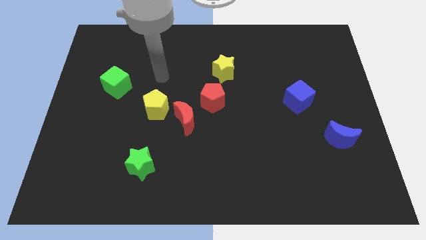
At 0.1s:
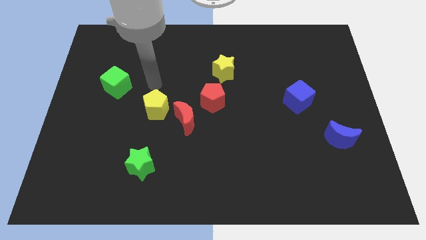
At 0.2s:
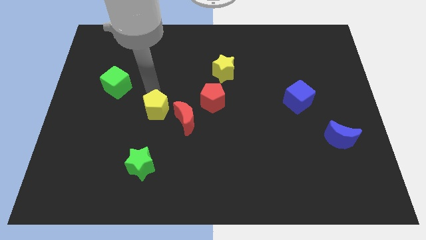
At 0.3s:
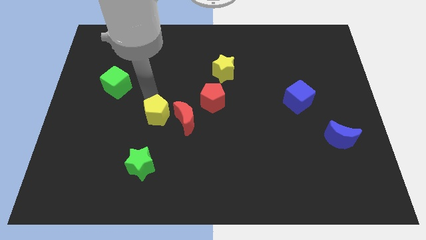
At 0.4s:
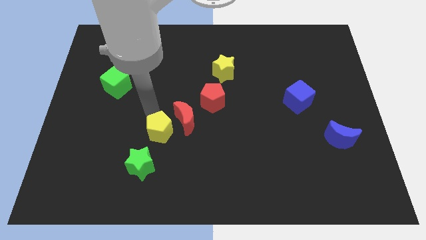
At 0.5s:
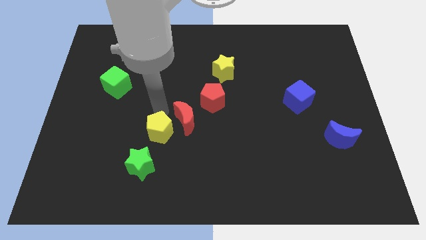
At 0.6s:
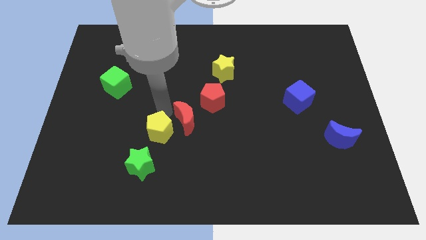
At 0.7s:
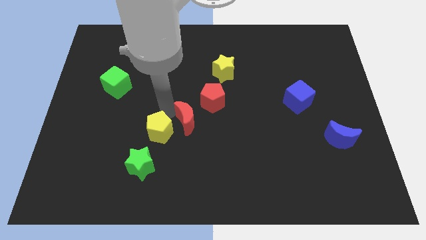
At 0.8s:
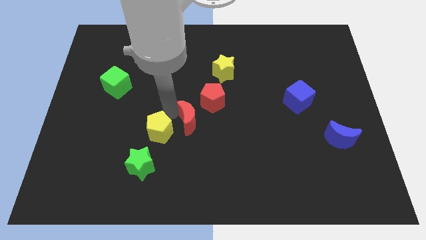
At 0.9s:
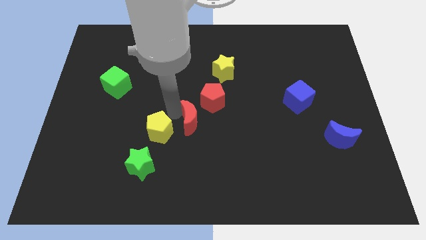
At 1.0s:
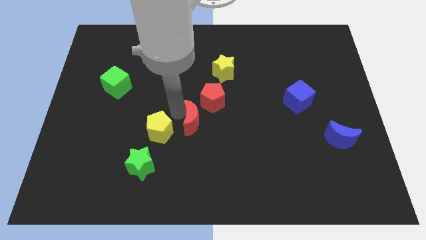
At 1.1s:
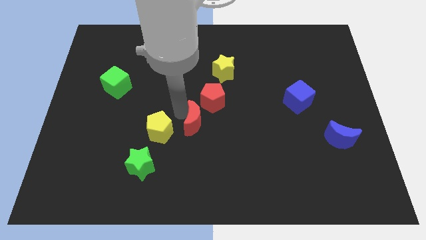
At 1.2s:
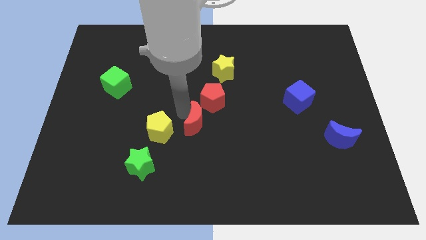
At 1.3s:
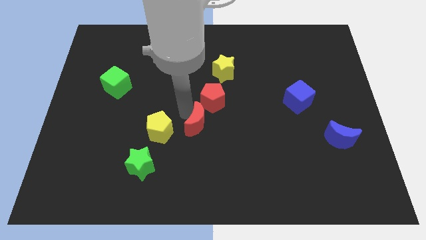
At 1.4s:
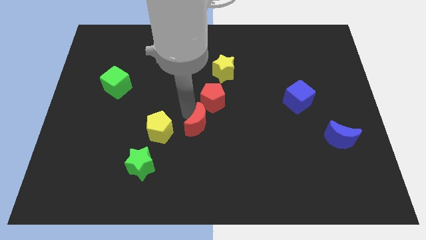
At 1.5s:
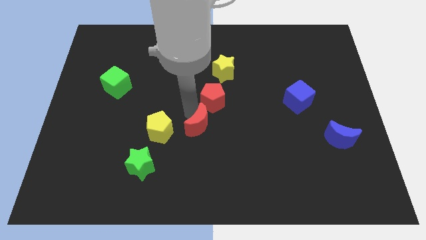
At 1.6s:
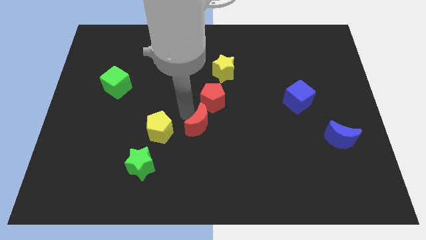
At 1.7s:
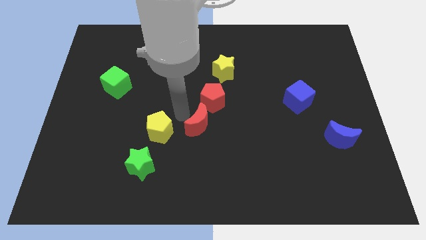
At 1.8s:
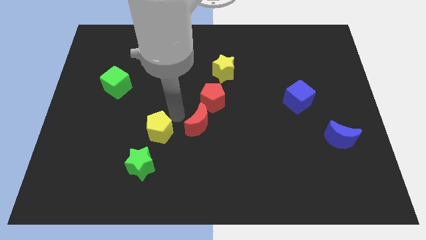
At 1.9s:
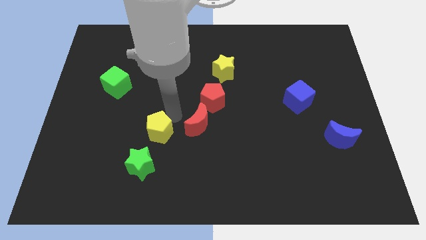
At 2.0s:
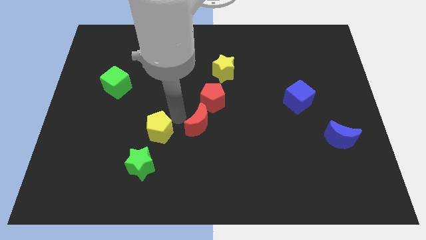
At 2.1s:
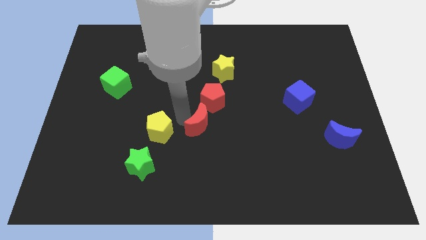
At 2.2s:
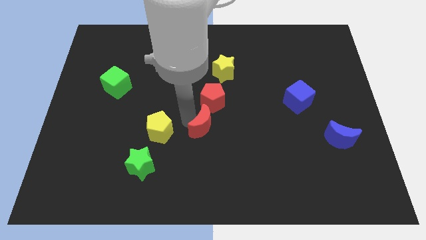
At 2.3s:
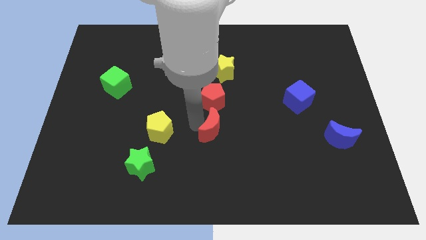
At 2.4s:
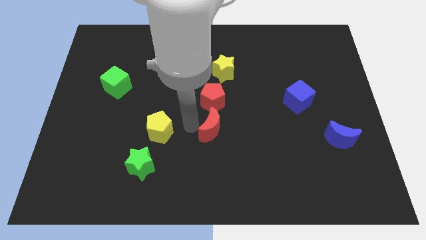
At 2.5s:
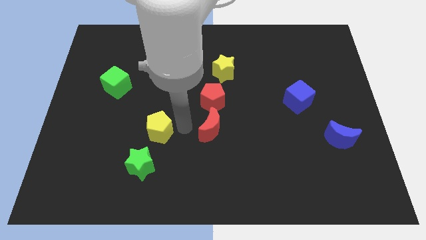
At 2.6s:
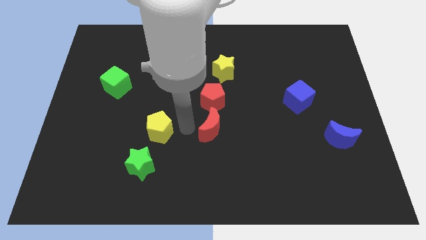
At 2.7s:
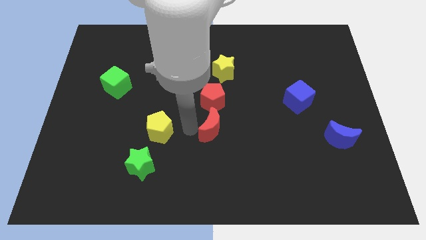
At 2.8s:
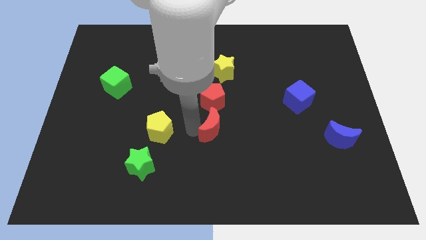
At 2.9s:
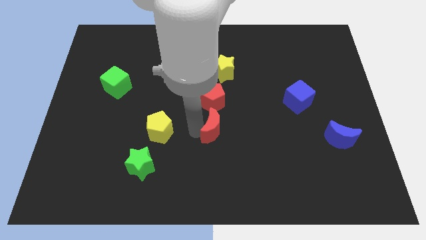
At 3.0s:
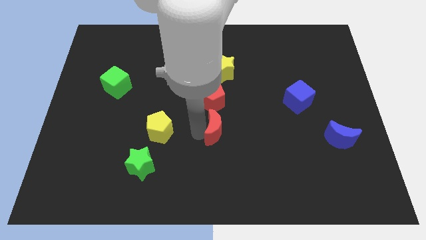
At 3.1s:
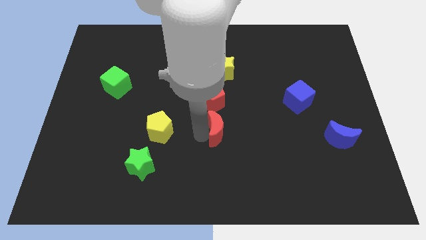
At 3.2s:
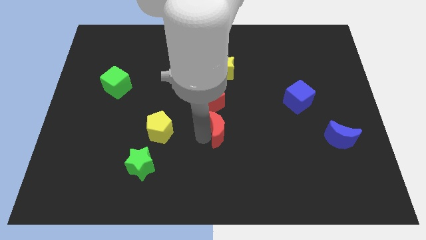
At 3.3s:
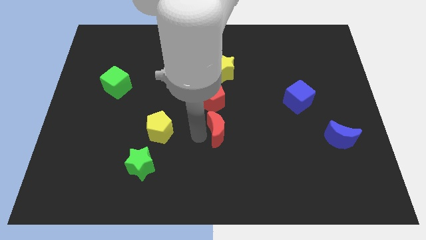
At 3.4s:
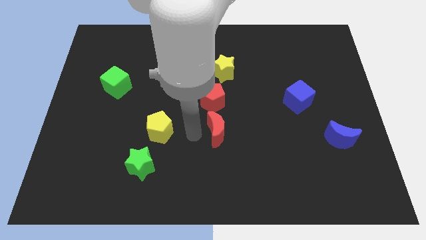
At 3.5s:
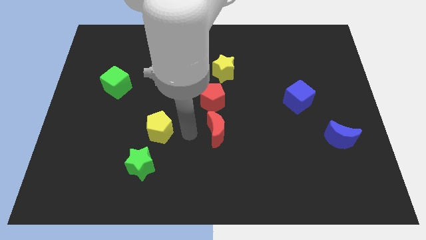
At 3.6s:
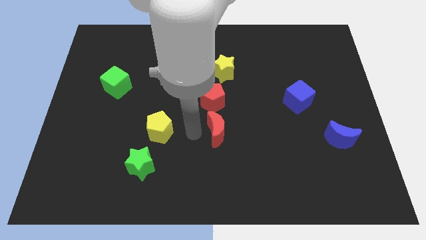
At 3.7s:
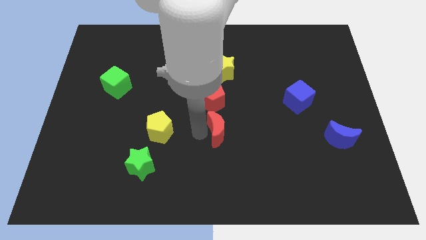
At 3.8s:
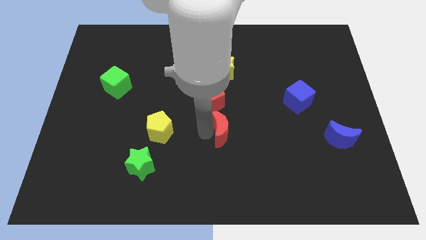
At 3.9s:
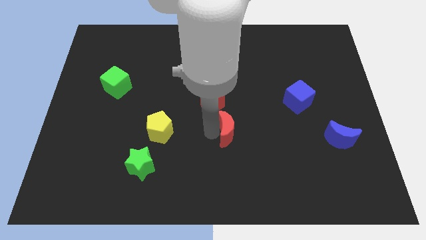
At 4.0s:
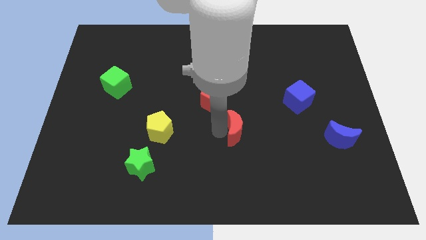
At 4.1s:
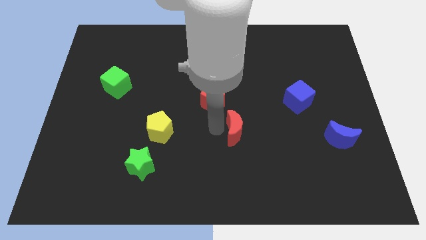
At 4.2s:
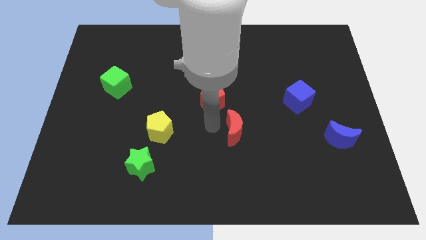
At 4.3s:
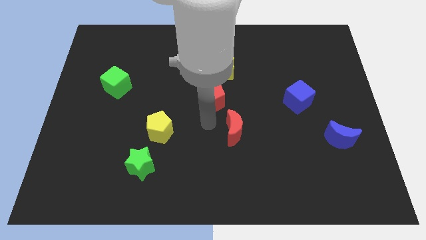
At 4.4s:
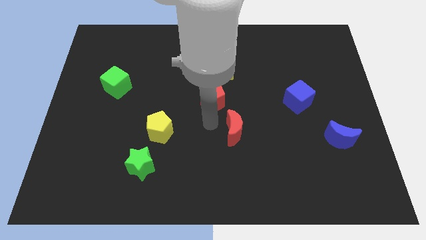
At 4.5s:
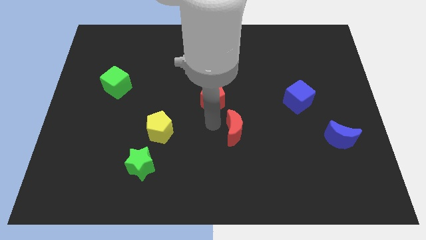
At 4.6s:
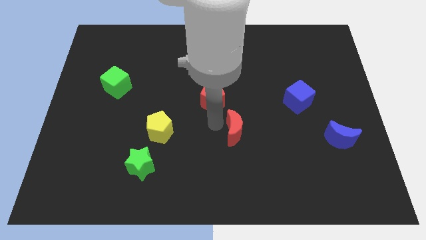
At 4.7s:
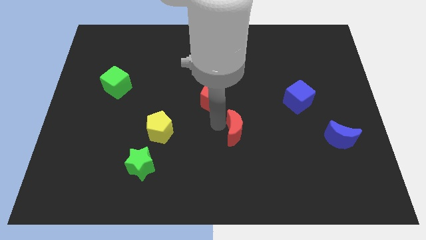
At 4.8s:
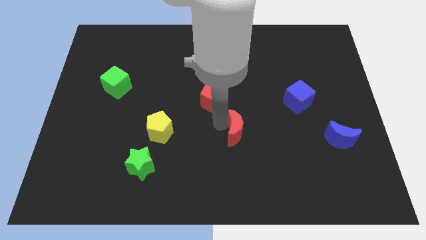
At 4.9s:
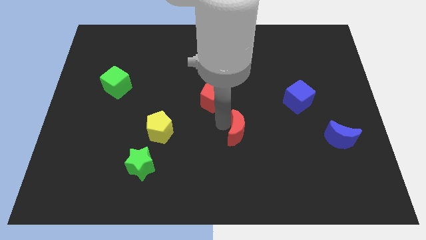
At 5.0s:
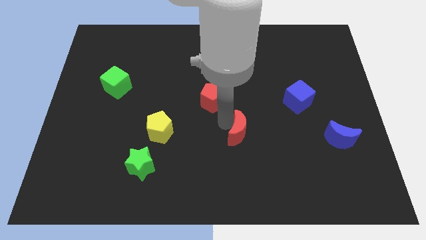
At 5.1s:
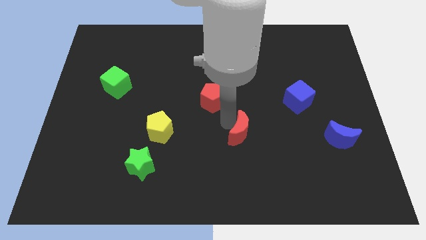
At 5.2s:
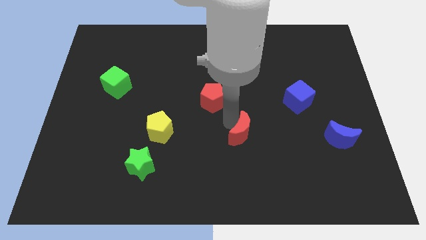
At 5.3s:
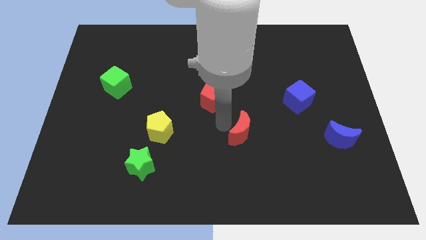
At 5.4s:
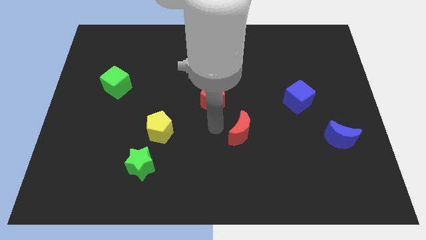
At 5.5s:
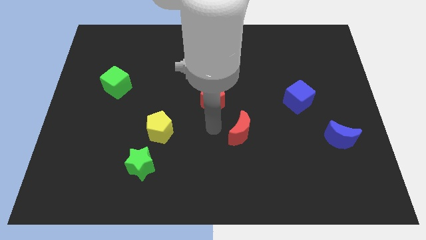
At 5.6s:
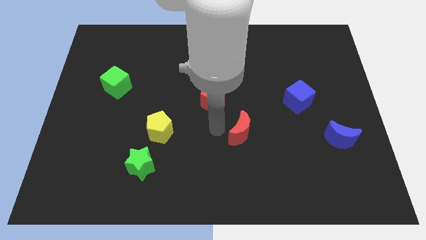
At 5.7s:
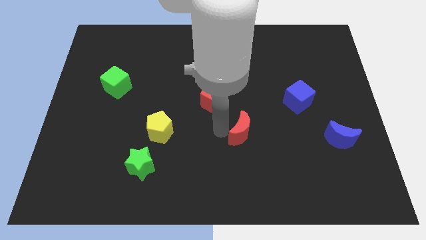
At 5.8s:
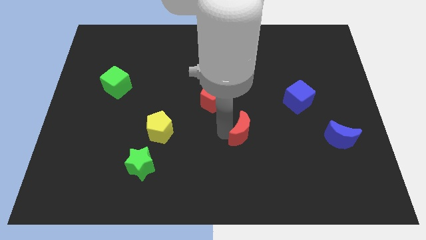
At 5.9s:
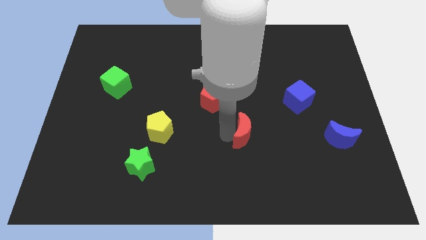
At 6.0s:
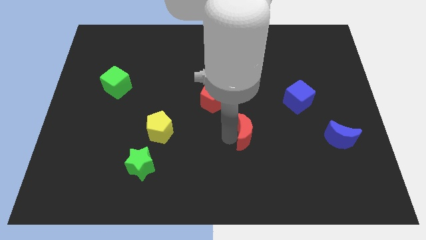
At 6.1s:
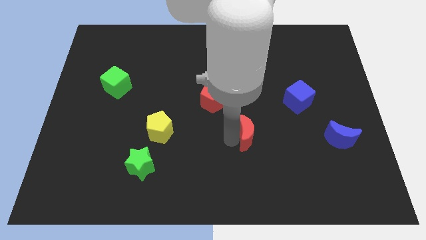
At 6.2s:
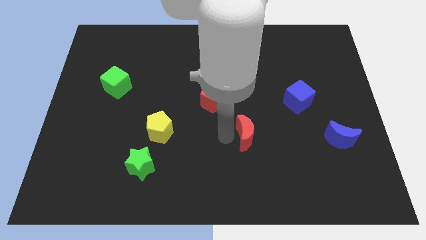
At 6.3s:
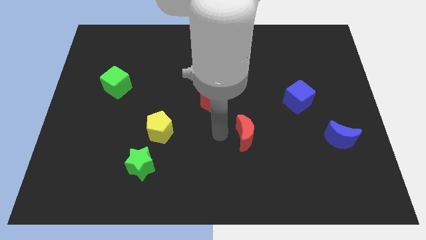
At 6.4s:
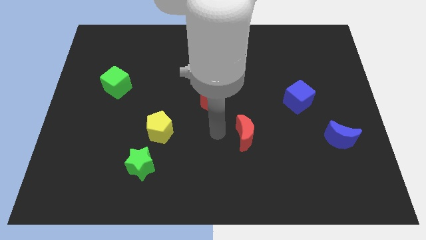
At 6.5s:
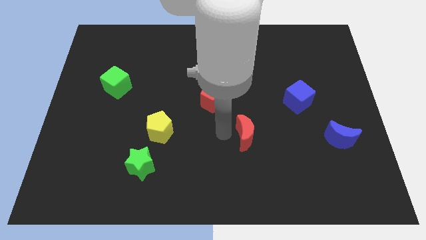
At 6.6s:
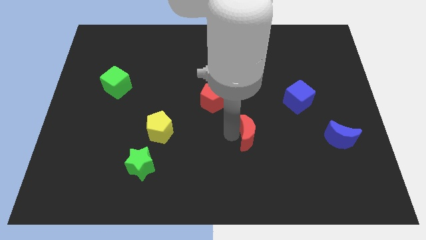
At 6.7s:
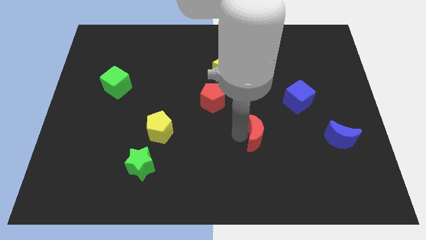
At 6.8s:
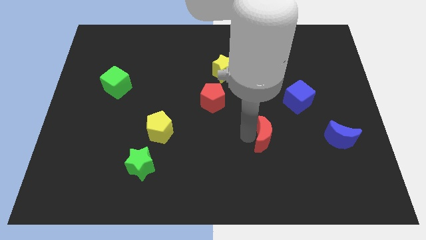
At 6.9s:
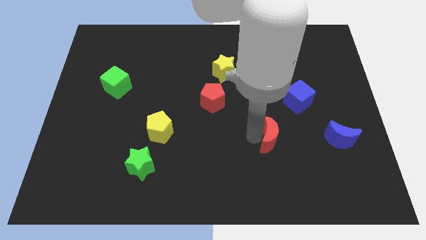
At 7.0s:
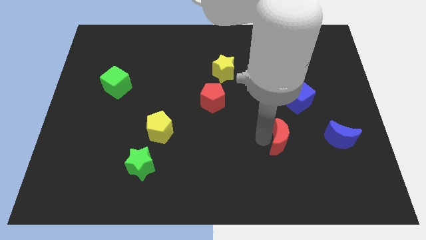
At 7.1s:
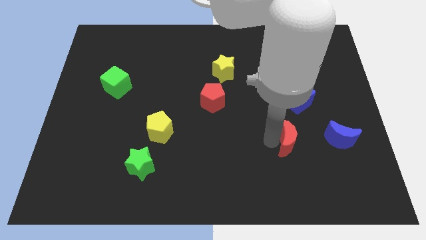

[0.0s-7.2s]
slide the red moon to the bottom of the blue cube
